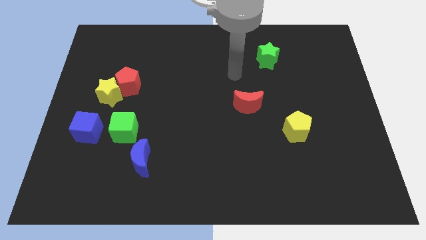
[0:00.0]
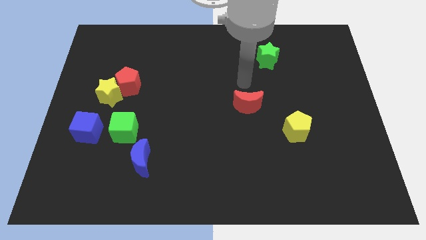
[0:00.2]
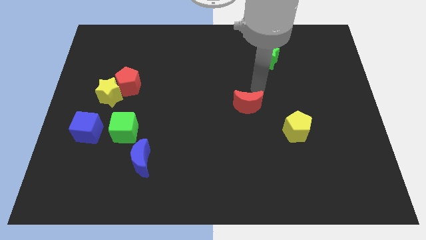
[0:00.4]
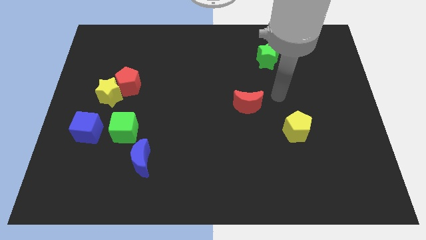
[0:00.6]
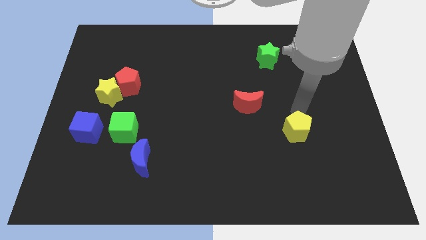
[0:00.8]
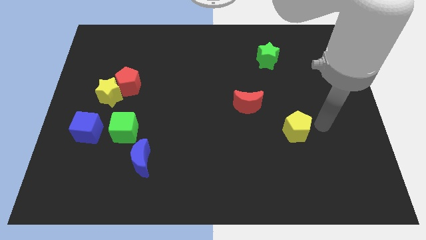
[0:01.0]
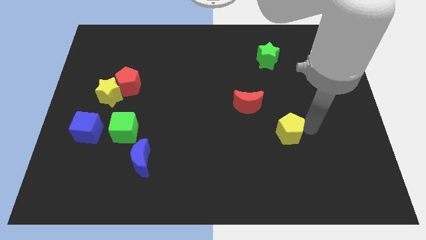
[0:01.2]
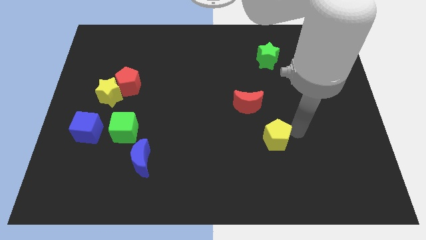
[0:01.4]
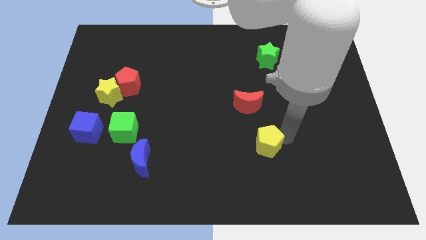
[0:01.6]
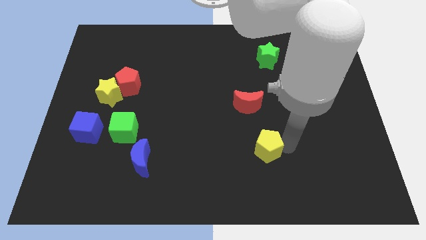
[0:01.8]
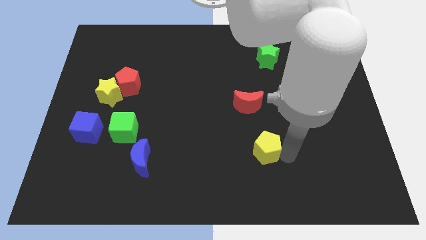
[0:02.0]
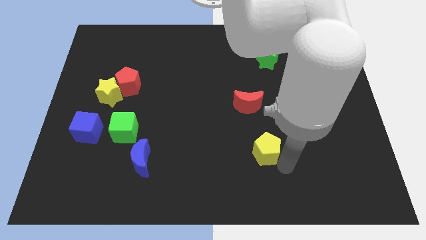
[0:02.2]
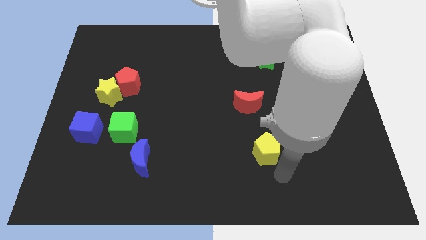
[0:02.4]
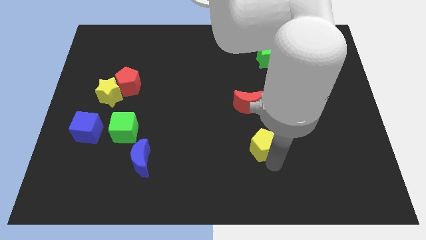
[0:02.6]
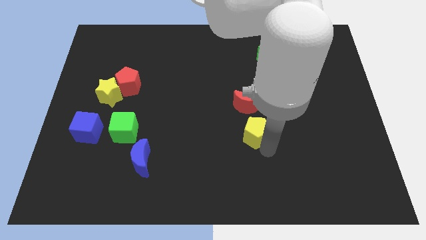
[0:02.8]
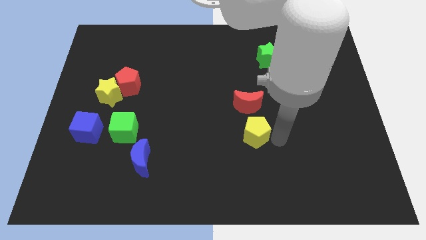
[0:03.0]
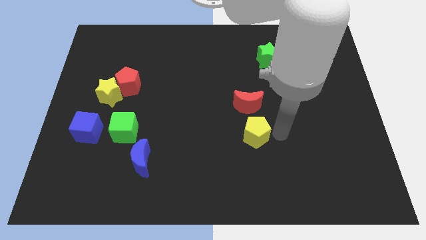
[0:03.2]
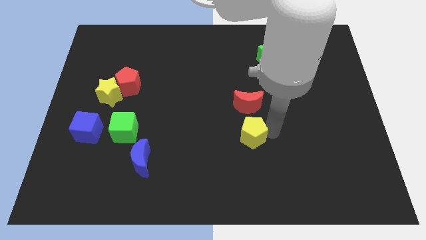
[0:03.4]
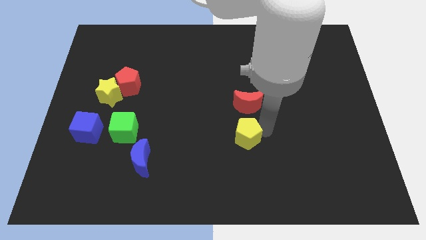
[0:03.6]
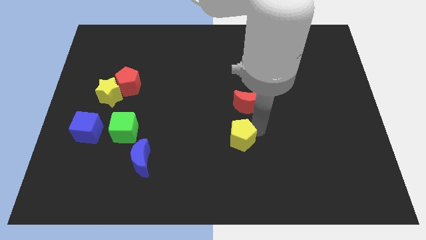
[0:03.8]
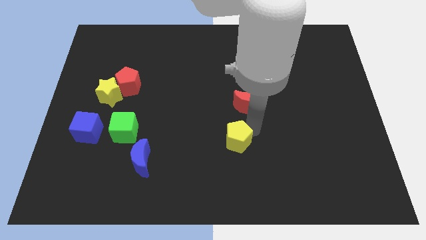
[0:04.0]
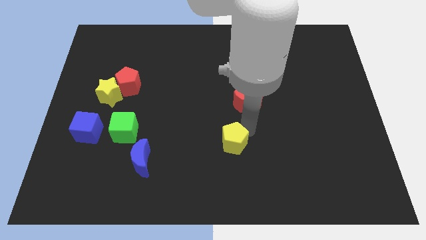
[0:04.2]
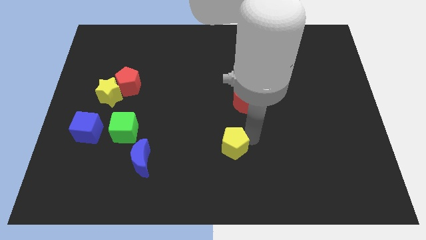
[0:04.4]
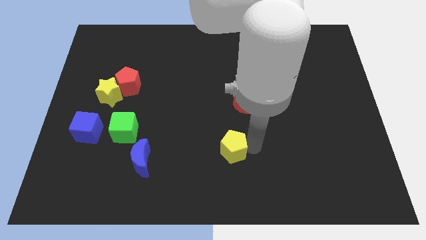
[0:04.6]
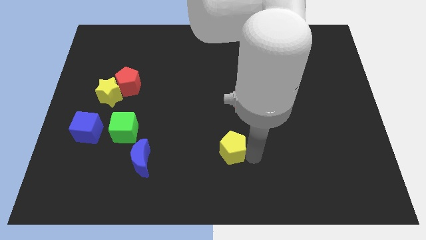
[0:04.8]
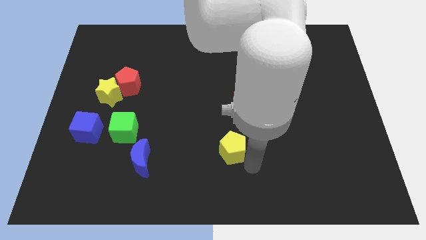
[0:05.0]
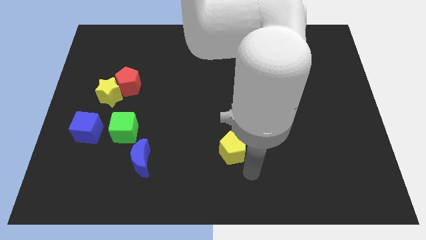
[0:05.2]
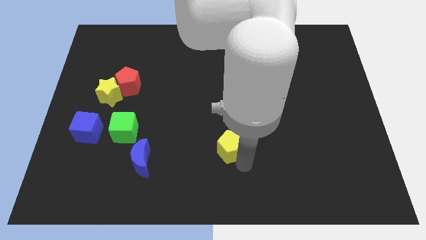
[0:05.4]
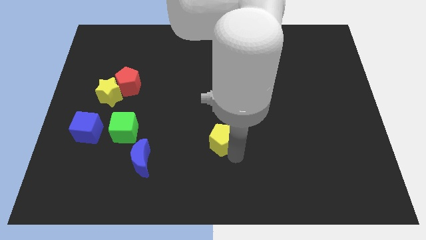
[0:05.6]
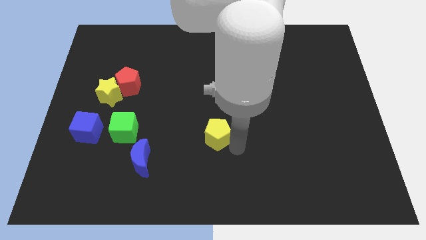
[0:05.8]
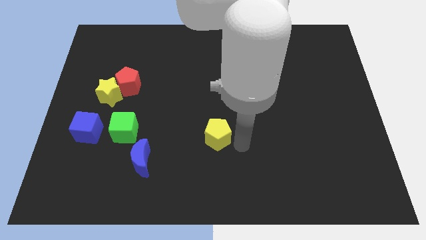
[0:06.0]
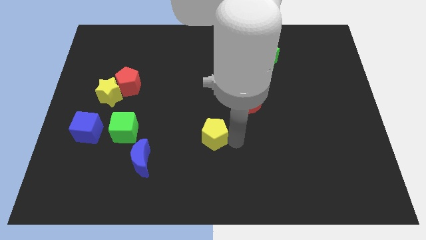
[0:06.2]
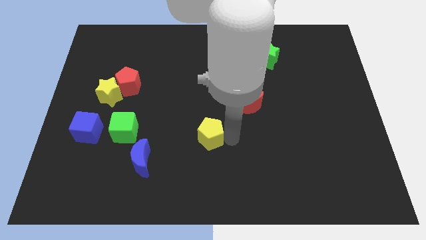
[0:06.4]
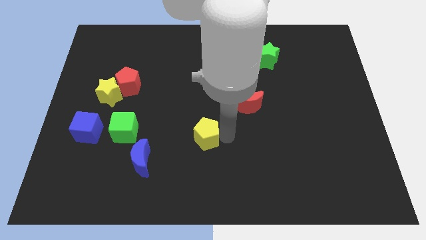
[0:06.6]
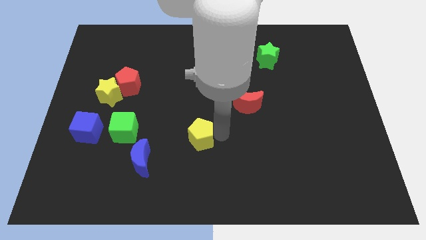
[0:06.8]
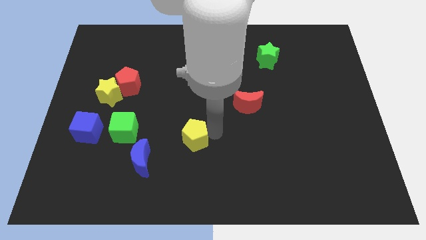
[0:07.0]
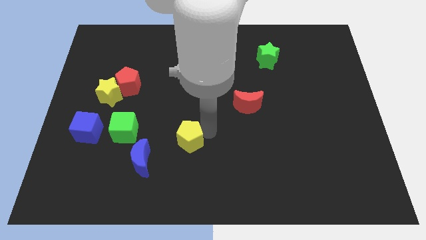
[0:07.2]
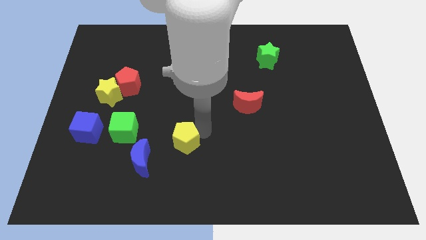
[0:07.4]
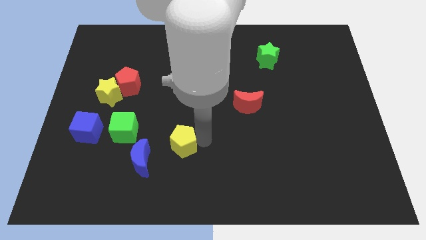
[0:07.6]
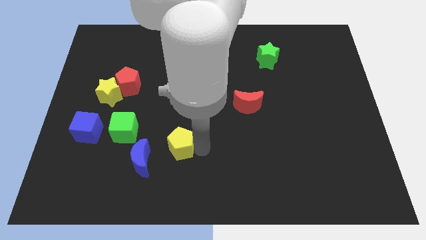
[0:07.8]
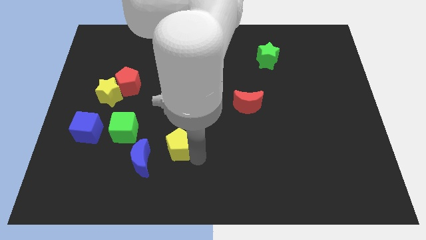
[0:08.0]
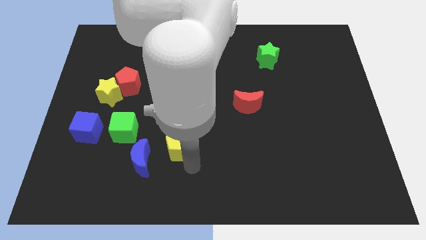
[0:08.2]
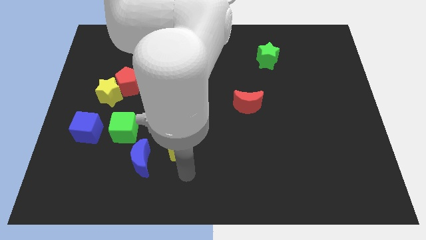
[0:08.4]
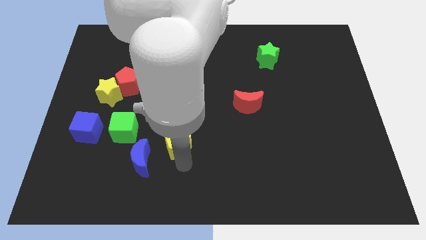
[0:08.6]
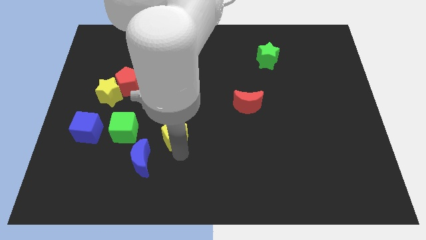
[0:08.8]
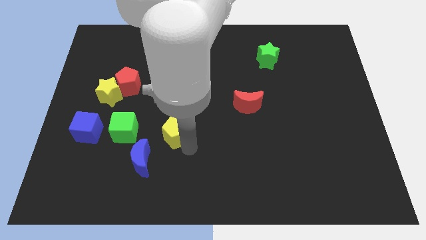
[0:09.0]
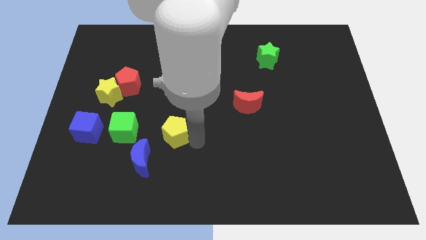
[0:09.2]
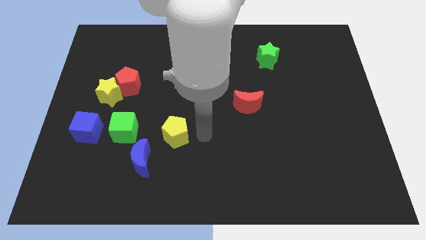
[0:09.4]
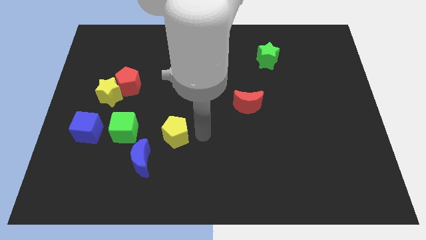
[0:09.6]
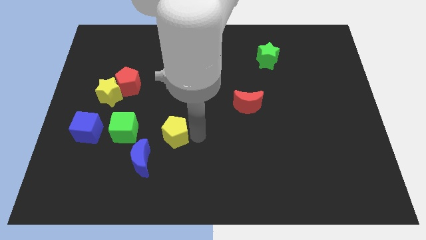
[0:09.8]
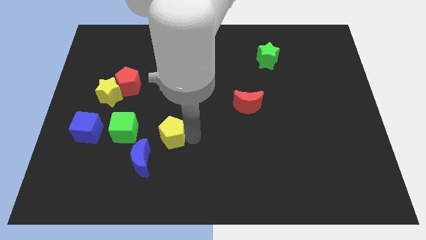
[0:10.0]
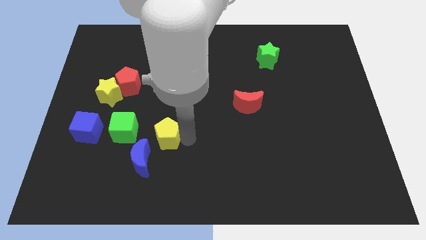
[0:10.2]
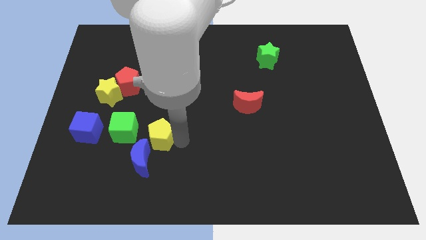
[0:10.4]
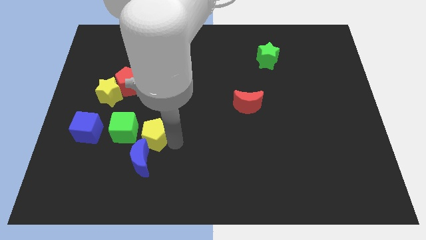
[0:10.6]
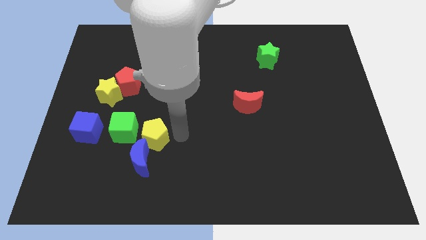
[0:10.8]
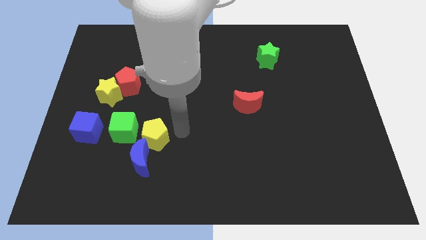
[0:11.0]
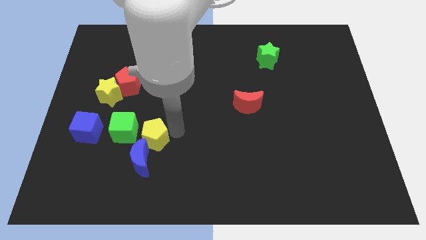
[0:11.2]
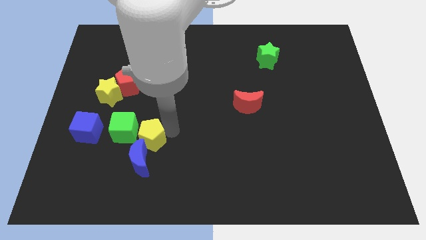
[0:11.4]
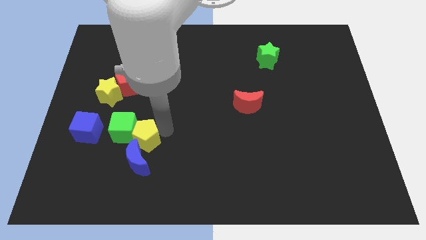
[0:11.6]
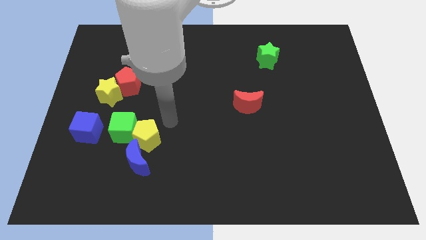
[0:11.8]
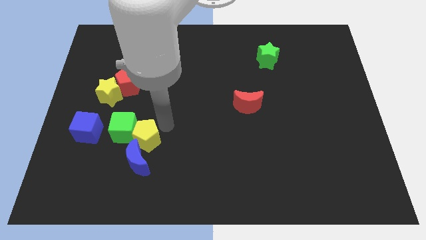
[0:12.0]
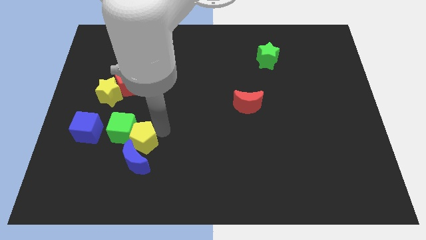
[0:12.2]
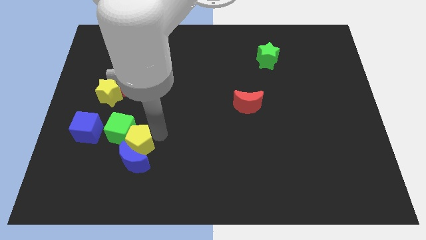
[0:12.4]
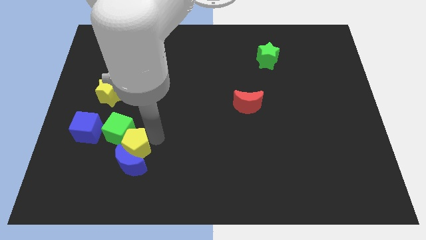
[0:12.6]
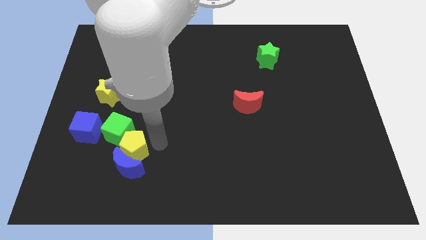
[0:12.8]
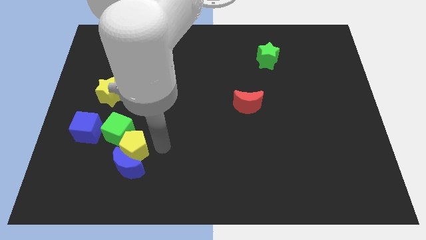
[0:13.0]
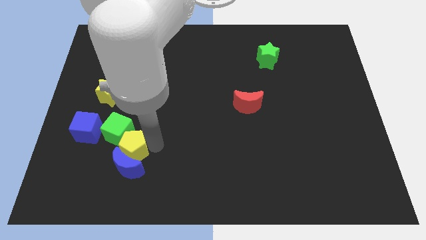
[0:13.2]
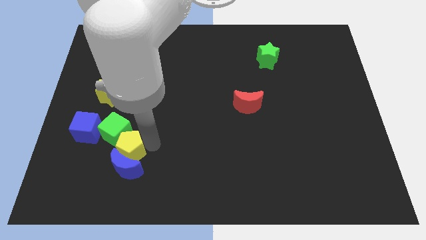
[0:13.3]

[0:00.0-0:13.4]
push the yellow pentagon diagonally down and to the right of the blue cube

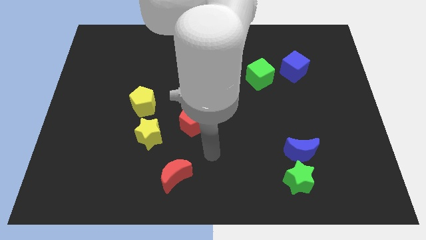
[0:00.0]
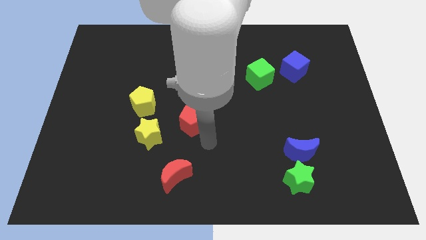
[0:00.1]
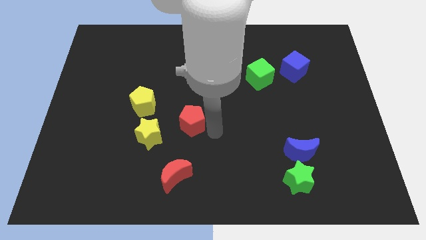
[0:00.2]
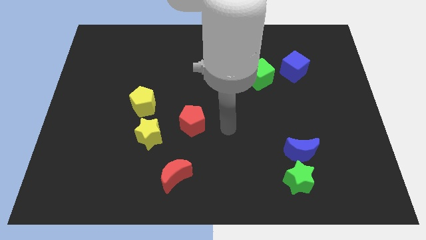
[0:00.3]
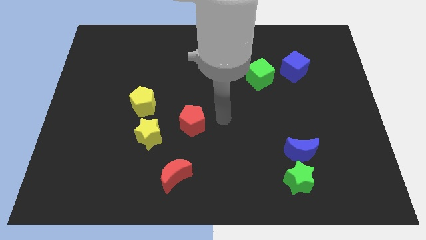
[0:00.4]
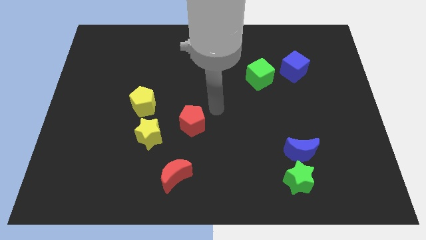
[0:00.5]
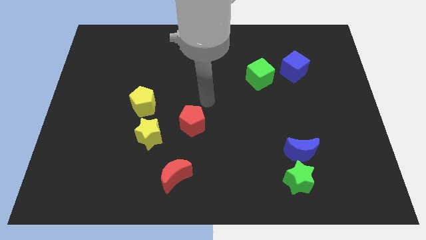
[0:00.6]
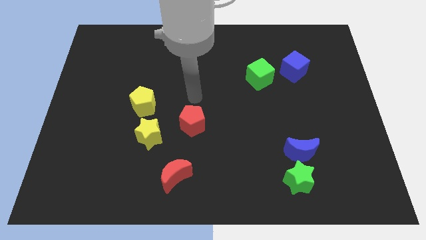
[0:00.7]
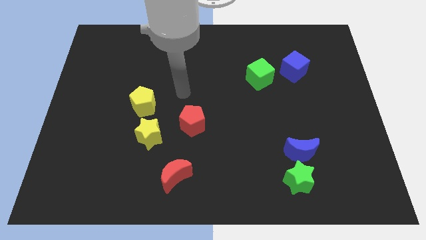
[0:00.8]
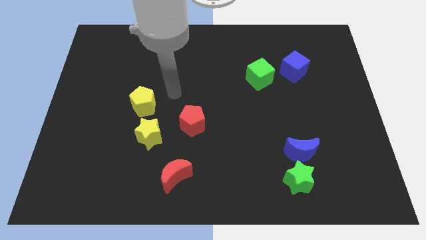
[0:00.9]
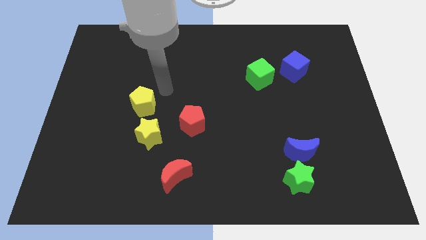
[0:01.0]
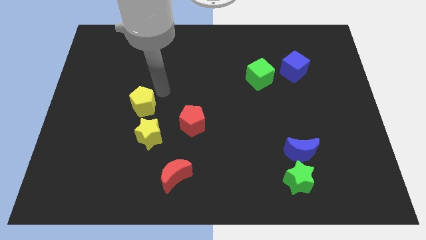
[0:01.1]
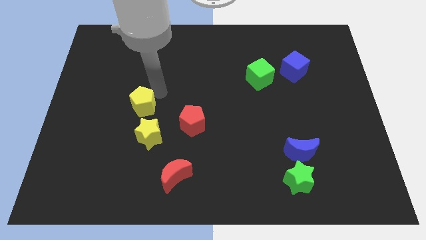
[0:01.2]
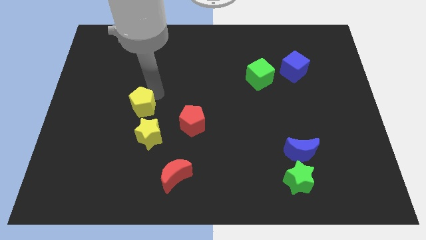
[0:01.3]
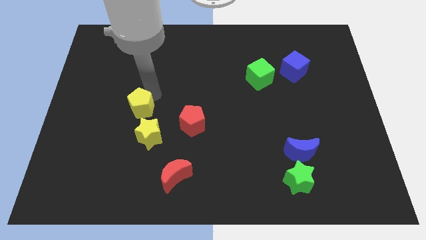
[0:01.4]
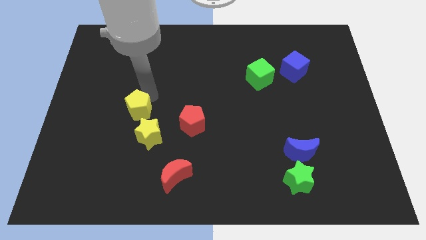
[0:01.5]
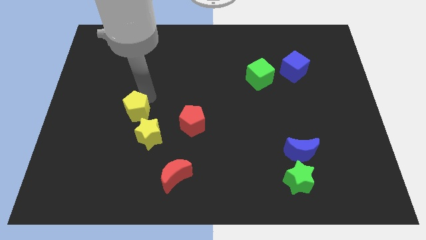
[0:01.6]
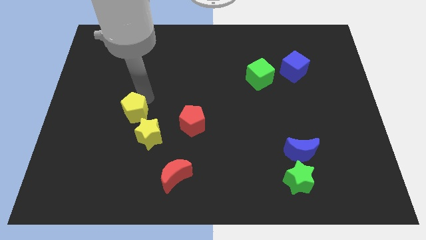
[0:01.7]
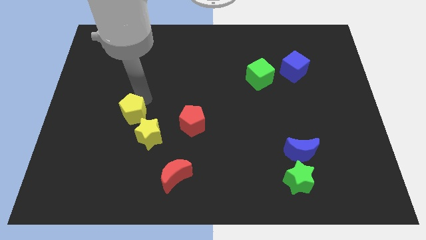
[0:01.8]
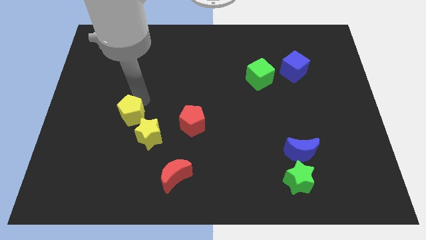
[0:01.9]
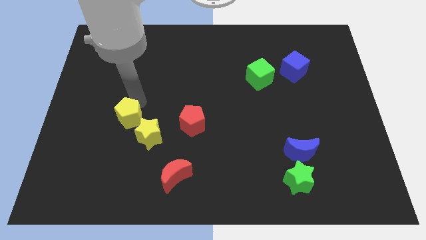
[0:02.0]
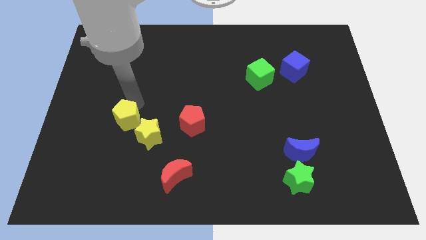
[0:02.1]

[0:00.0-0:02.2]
push the yellow pentagon to the left of the yellow star
